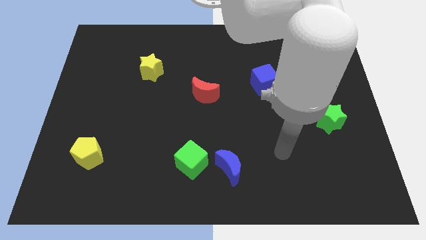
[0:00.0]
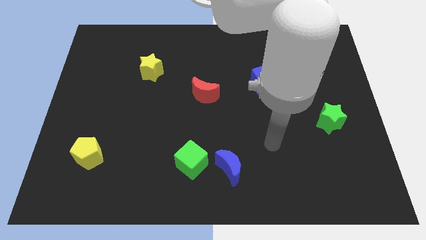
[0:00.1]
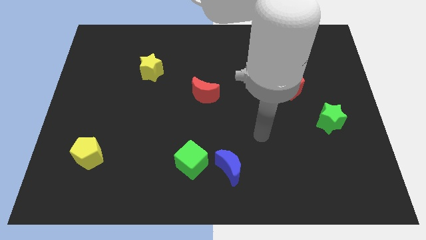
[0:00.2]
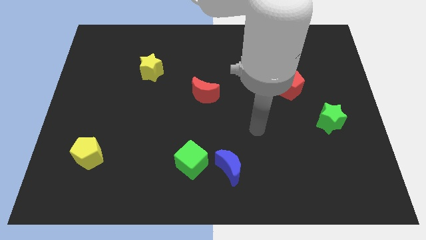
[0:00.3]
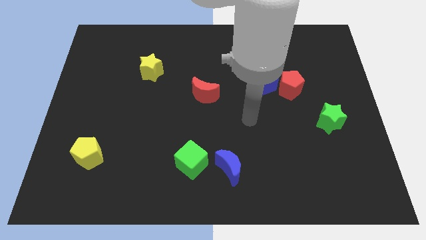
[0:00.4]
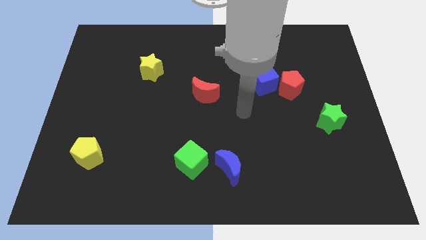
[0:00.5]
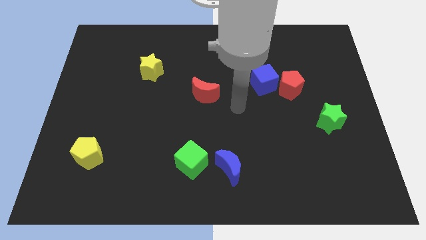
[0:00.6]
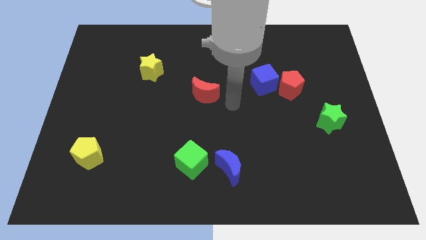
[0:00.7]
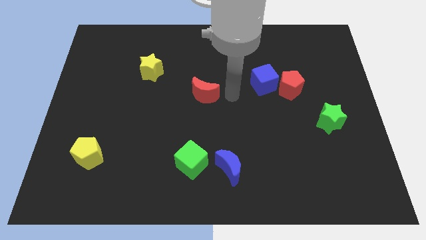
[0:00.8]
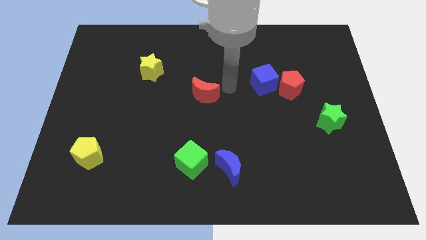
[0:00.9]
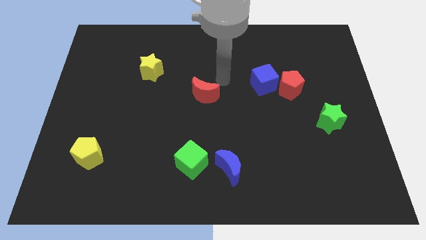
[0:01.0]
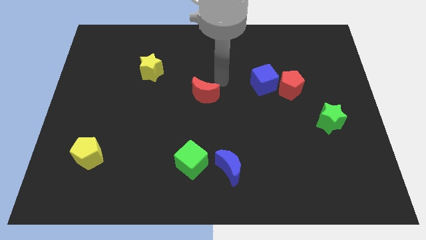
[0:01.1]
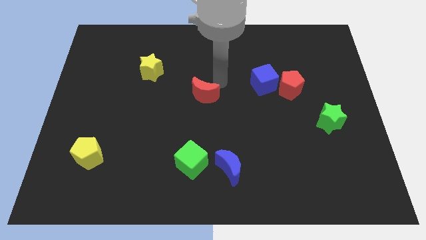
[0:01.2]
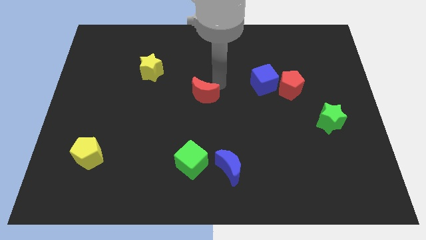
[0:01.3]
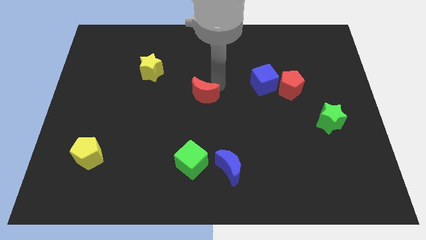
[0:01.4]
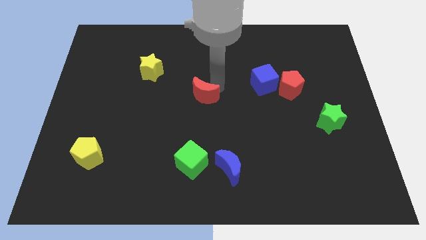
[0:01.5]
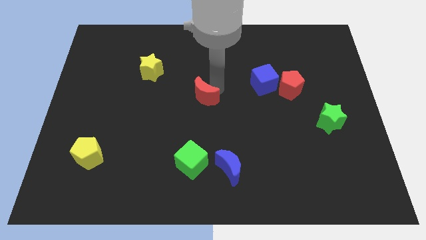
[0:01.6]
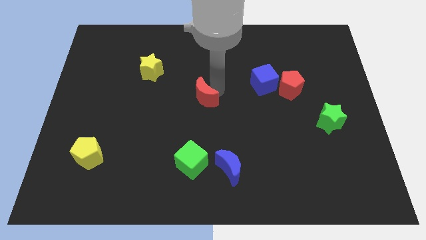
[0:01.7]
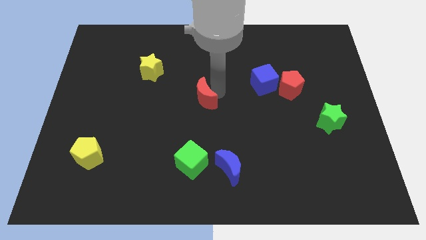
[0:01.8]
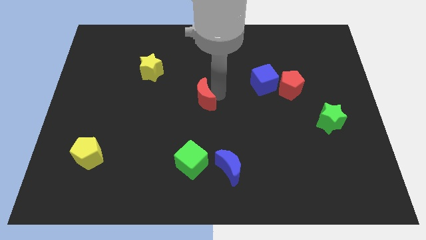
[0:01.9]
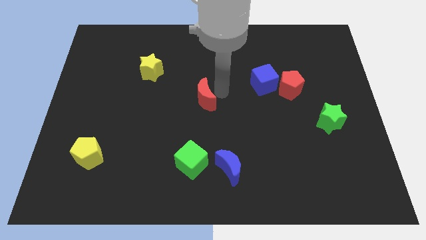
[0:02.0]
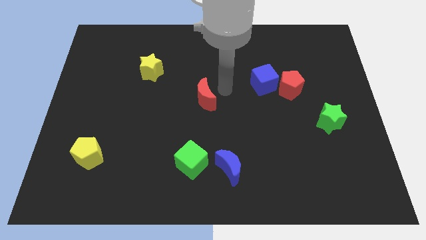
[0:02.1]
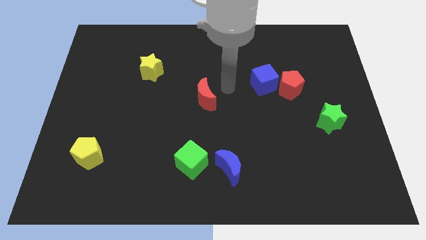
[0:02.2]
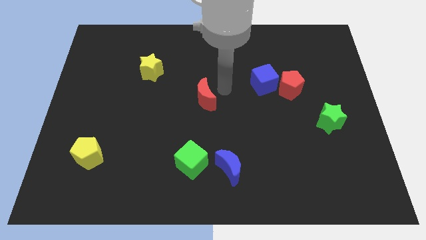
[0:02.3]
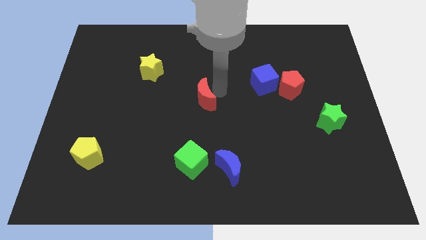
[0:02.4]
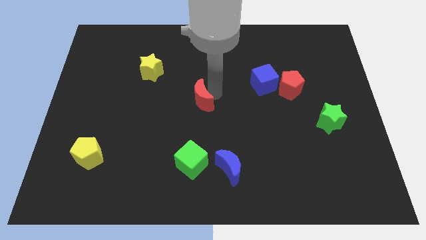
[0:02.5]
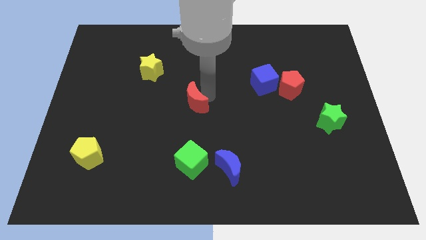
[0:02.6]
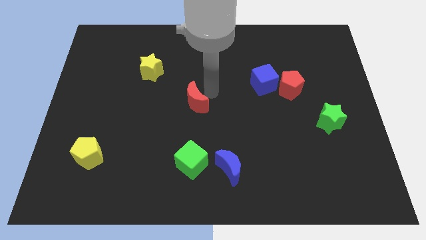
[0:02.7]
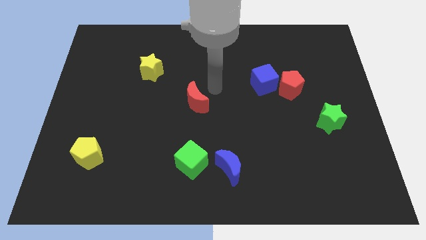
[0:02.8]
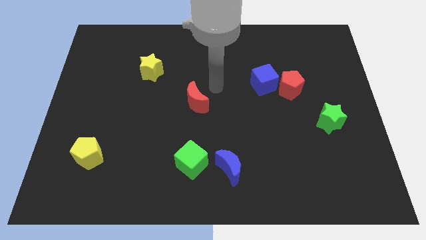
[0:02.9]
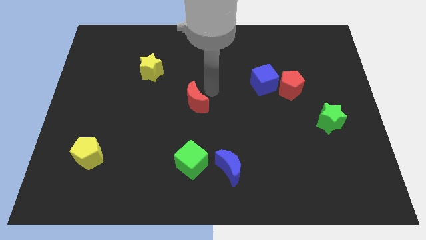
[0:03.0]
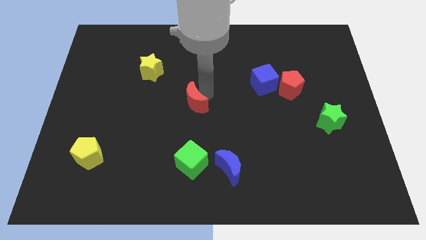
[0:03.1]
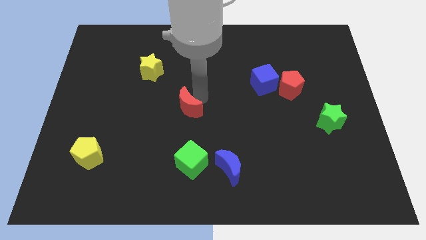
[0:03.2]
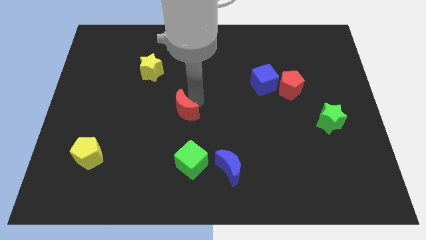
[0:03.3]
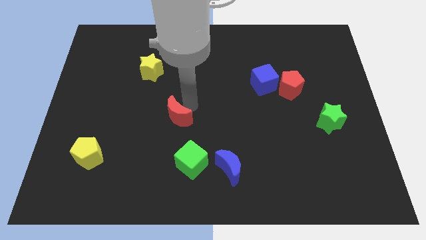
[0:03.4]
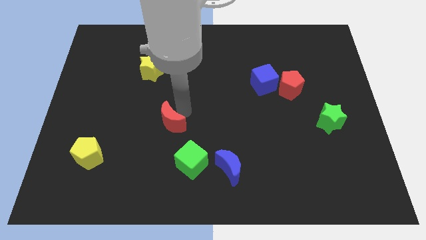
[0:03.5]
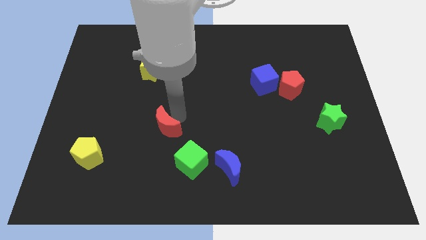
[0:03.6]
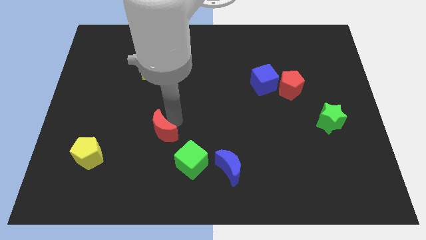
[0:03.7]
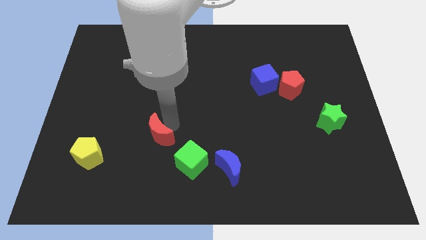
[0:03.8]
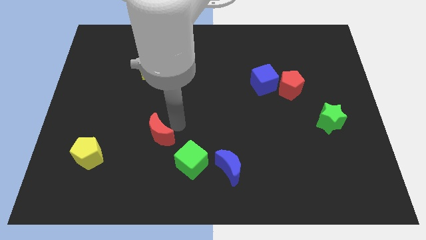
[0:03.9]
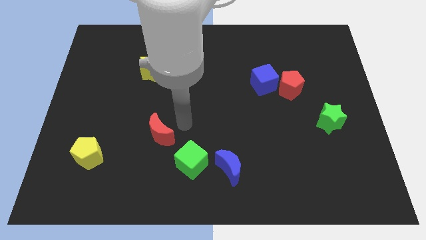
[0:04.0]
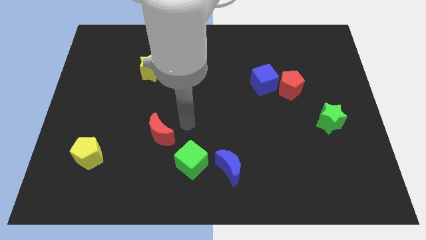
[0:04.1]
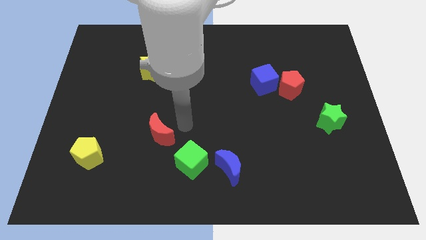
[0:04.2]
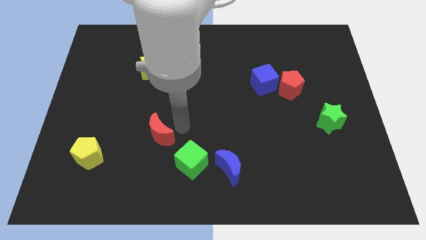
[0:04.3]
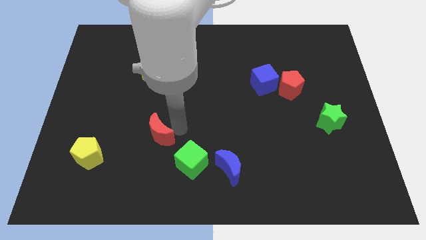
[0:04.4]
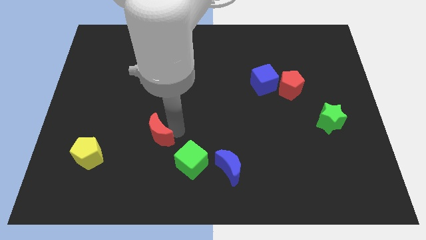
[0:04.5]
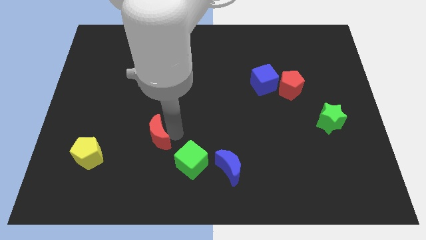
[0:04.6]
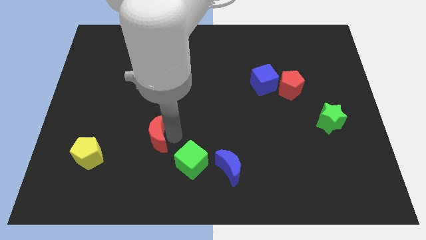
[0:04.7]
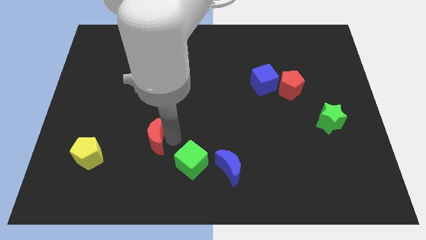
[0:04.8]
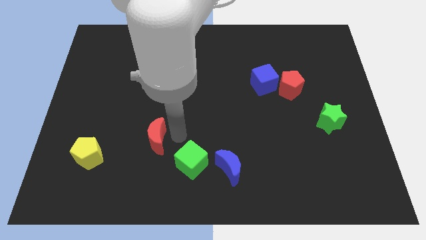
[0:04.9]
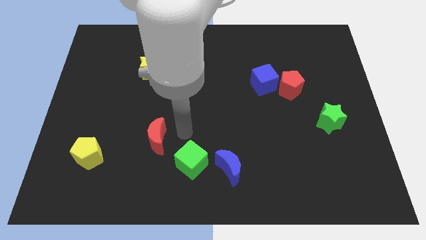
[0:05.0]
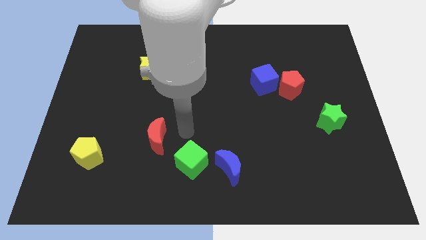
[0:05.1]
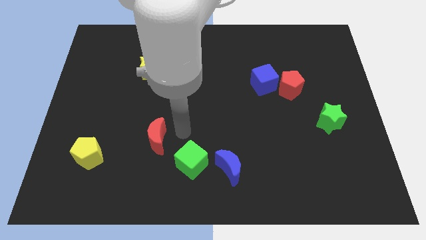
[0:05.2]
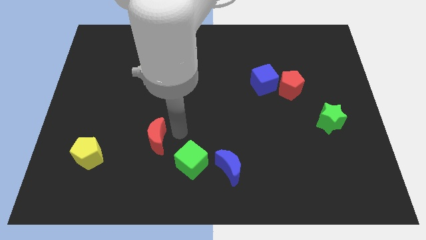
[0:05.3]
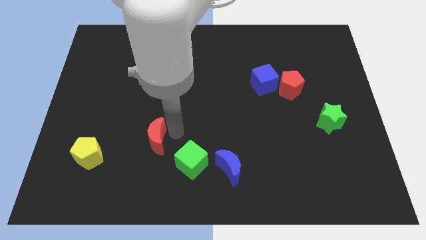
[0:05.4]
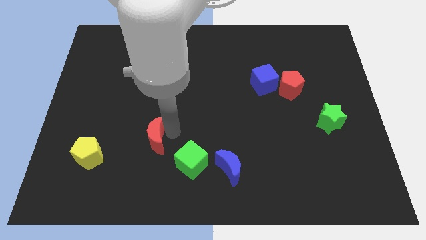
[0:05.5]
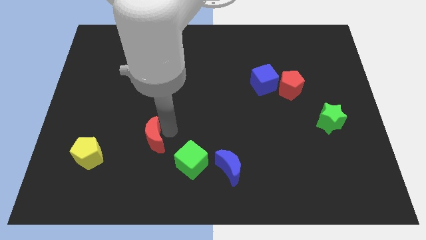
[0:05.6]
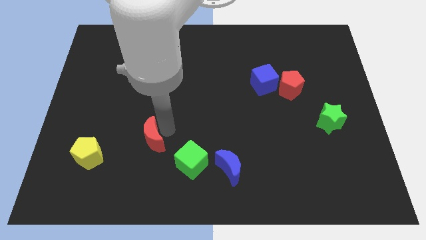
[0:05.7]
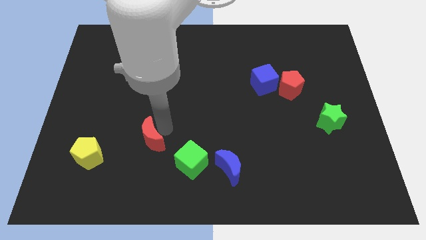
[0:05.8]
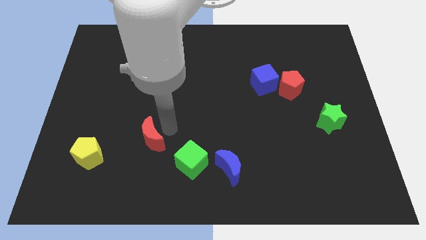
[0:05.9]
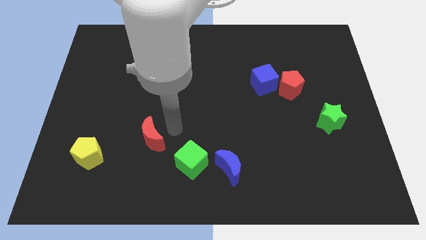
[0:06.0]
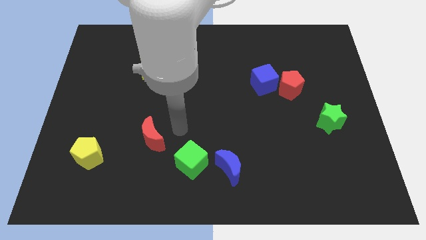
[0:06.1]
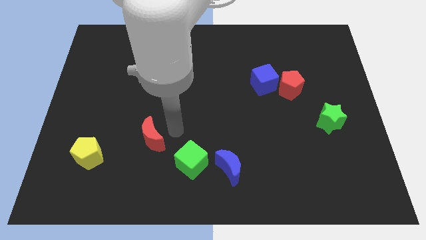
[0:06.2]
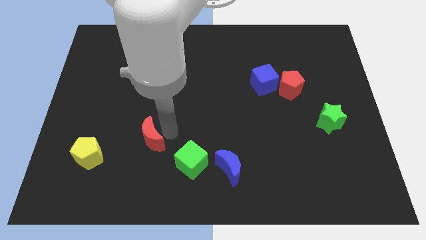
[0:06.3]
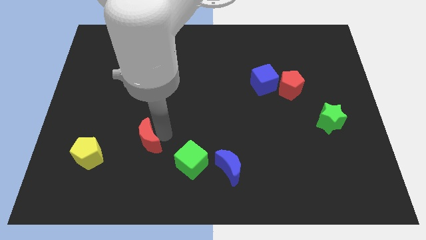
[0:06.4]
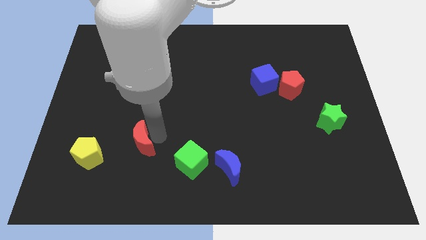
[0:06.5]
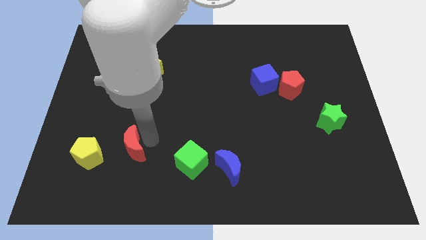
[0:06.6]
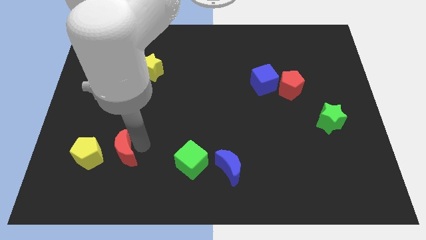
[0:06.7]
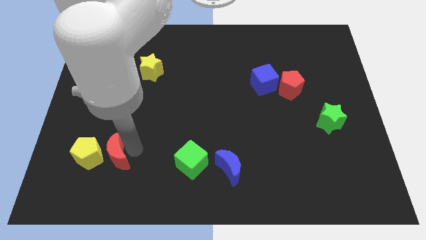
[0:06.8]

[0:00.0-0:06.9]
put the red moon next to the yellow pentagon

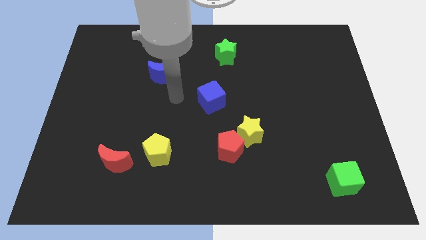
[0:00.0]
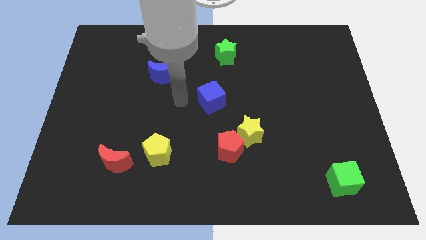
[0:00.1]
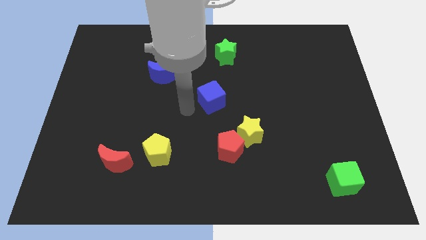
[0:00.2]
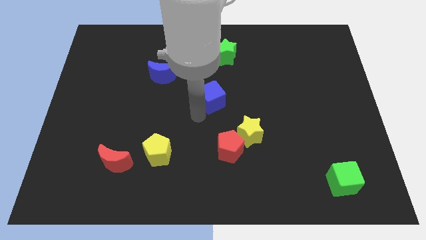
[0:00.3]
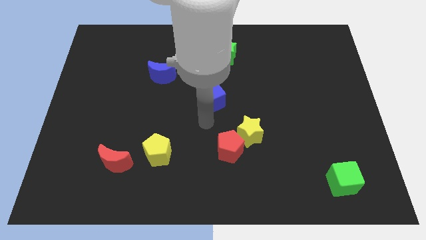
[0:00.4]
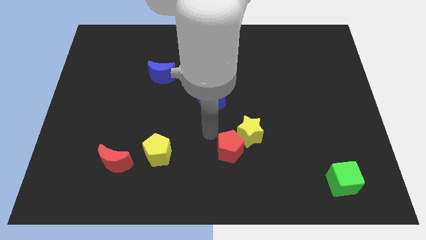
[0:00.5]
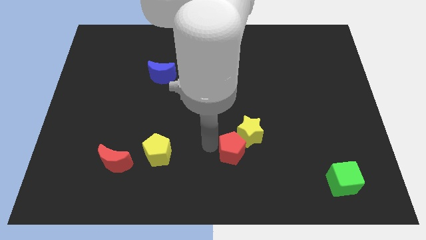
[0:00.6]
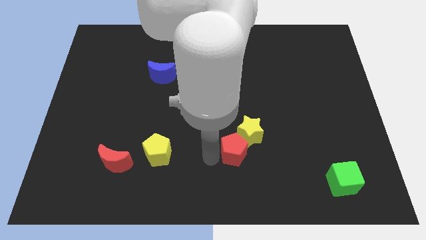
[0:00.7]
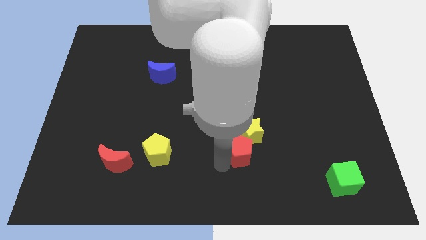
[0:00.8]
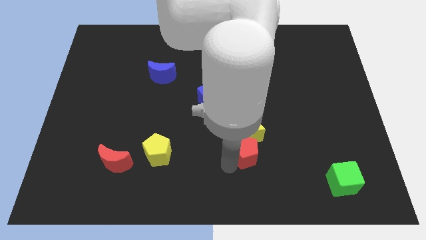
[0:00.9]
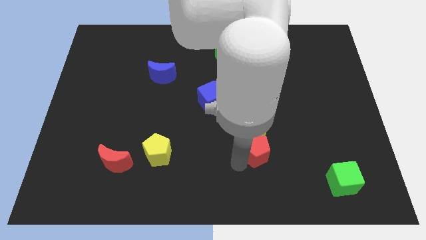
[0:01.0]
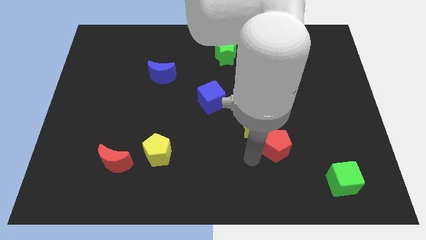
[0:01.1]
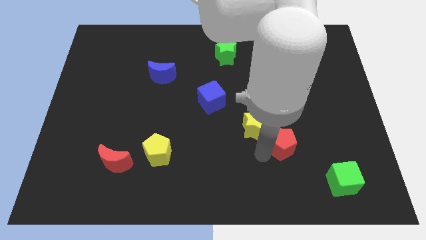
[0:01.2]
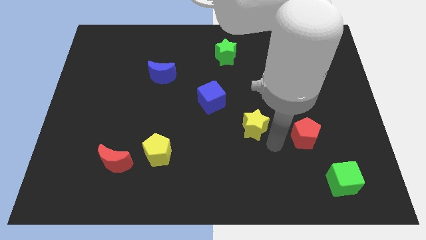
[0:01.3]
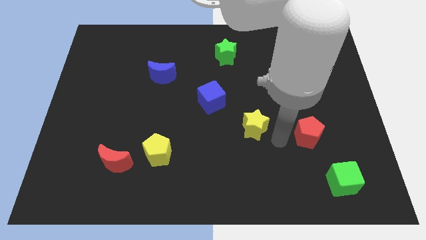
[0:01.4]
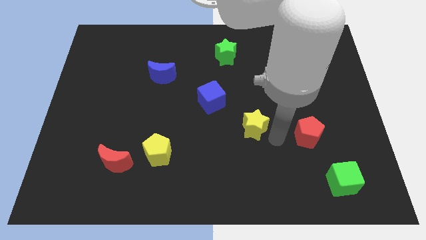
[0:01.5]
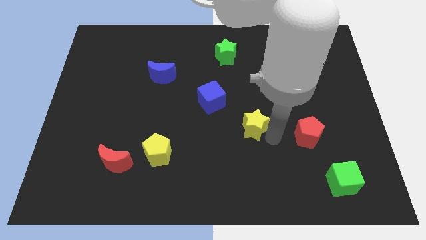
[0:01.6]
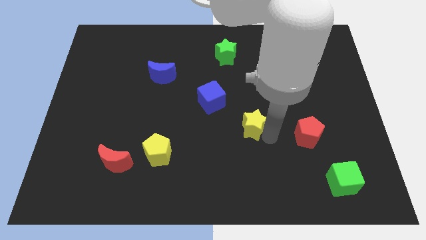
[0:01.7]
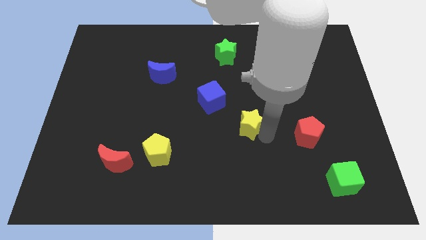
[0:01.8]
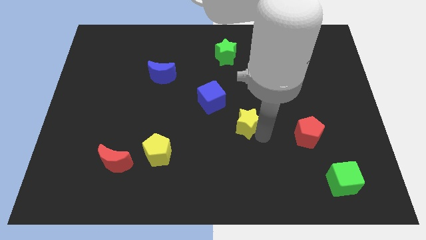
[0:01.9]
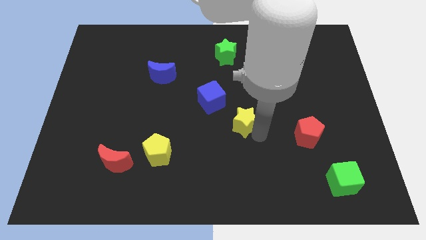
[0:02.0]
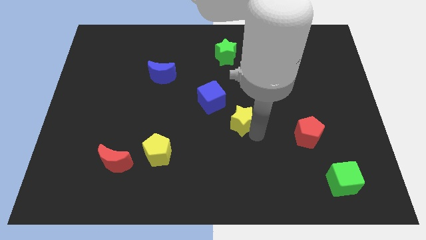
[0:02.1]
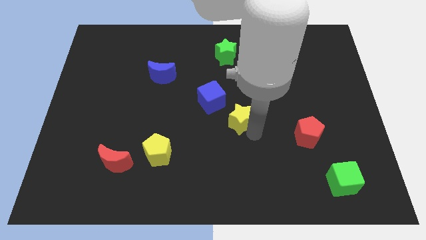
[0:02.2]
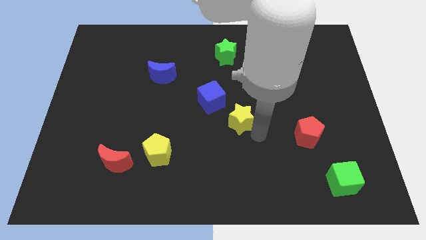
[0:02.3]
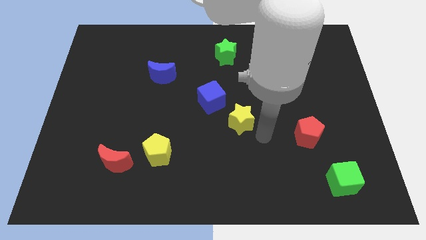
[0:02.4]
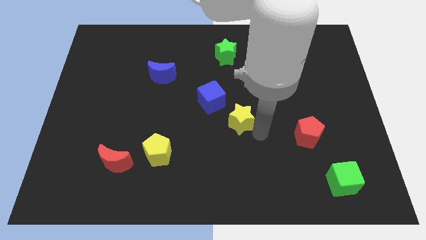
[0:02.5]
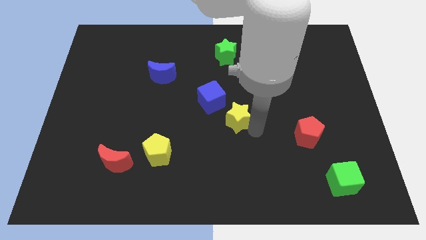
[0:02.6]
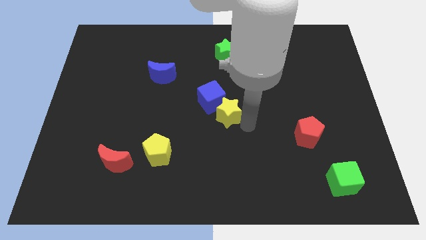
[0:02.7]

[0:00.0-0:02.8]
slide the yellow star to the blue cube
